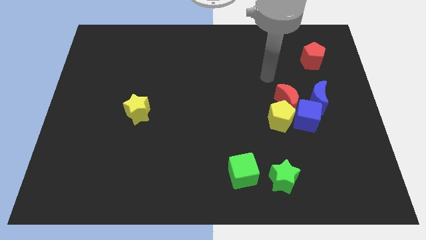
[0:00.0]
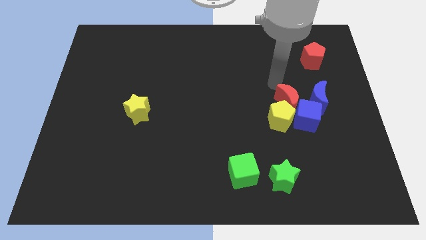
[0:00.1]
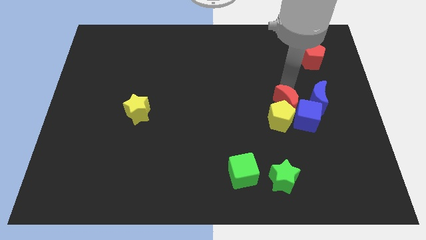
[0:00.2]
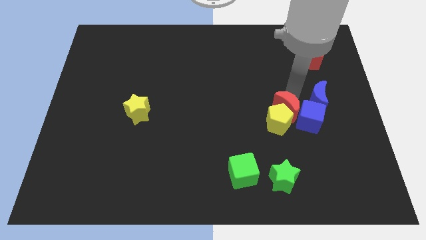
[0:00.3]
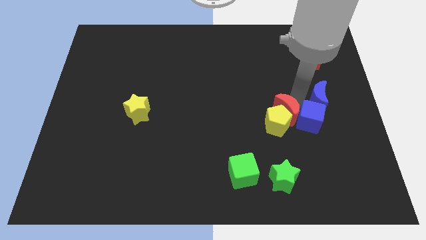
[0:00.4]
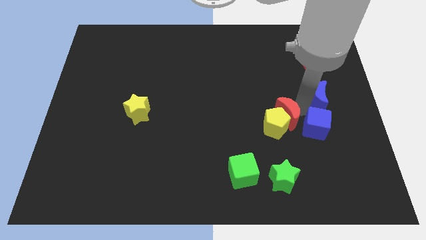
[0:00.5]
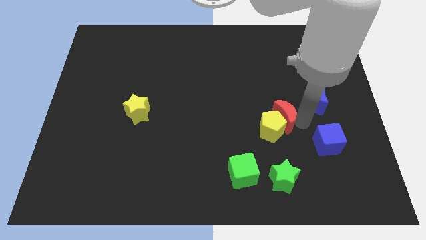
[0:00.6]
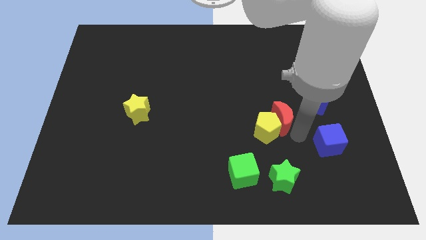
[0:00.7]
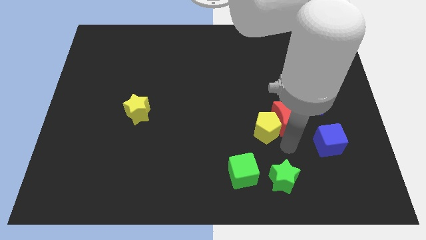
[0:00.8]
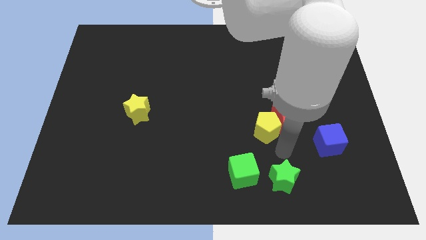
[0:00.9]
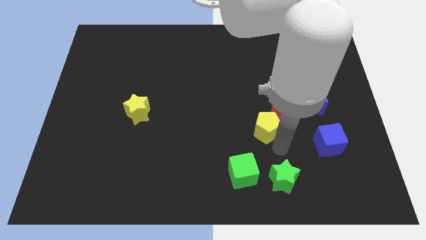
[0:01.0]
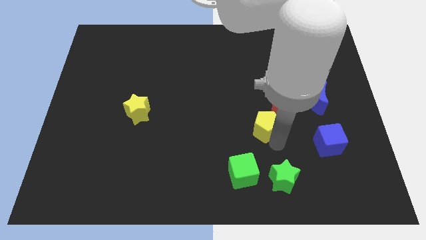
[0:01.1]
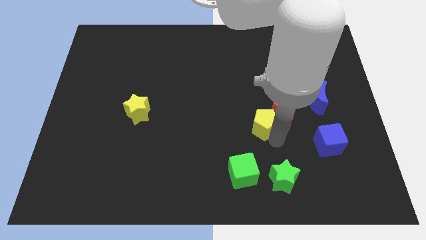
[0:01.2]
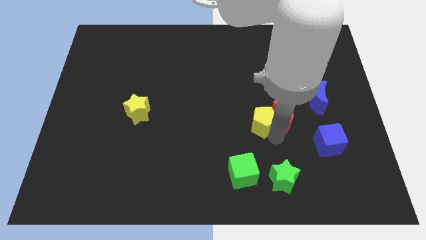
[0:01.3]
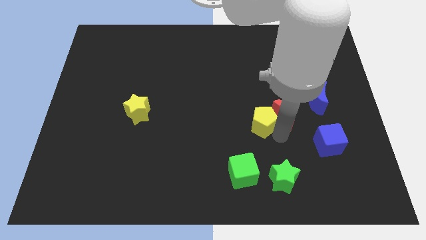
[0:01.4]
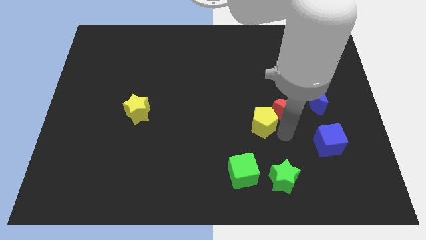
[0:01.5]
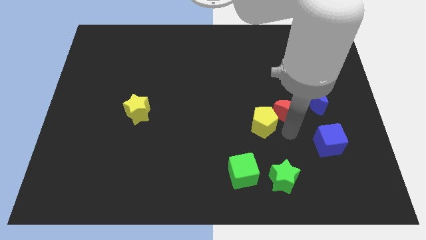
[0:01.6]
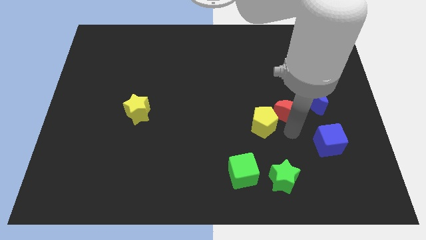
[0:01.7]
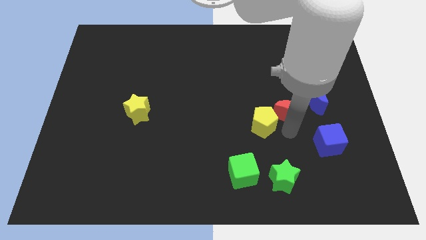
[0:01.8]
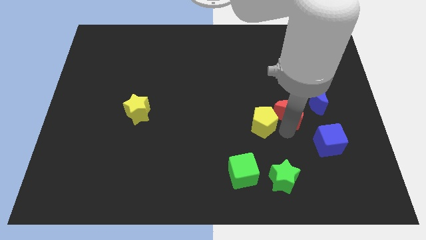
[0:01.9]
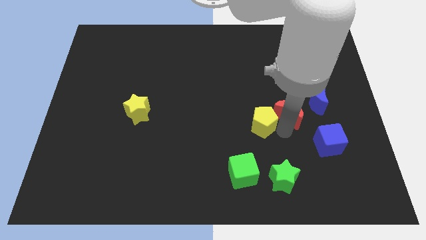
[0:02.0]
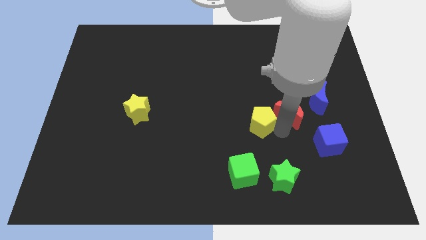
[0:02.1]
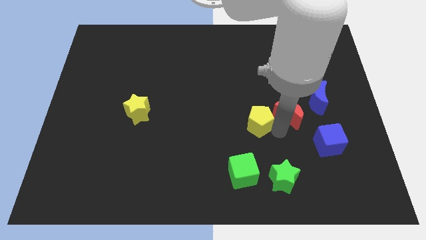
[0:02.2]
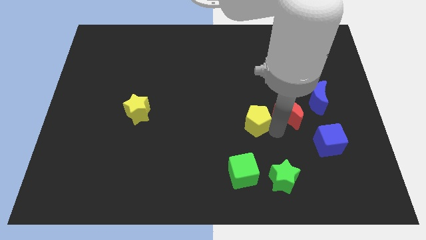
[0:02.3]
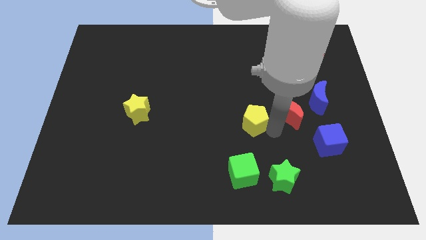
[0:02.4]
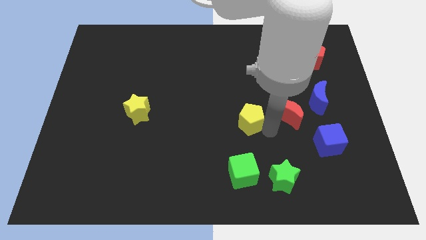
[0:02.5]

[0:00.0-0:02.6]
slide the yellow pentagon to the left a bit

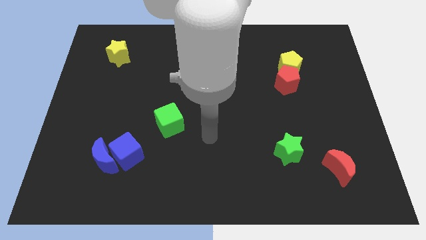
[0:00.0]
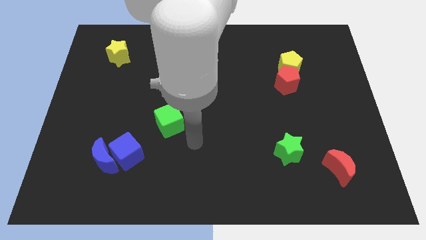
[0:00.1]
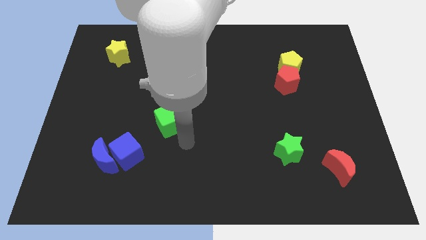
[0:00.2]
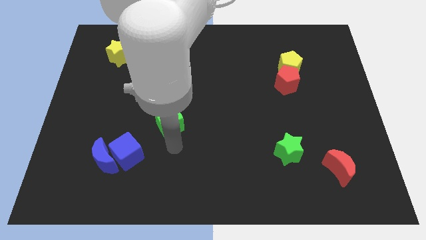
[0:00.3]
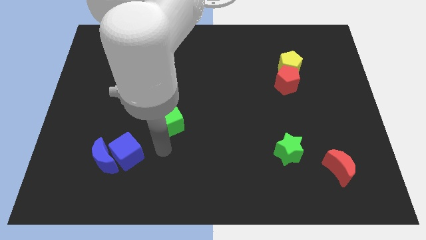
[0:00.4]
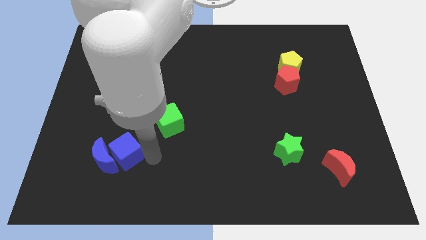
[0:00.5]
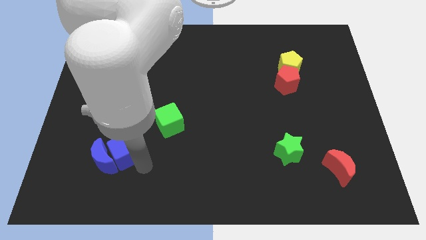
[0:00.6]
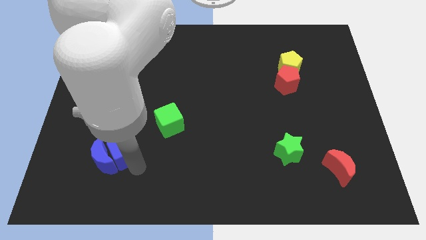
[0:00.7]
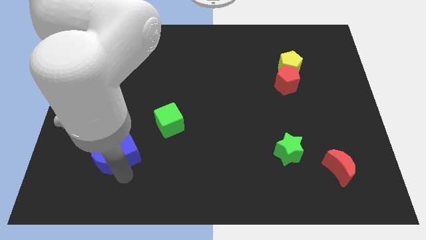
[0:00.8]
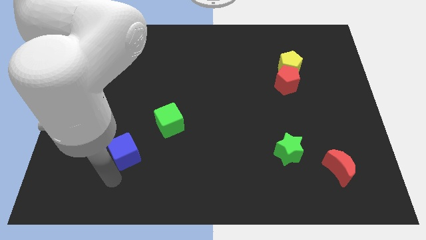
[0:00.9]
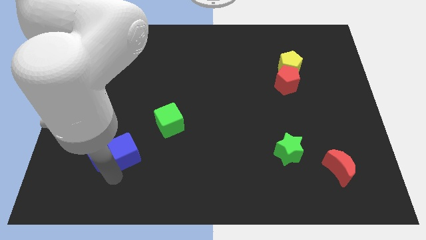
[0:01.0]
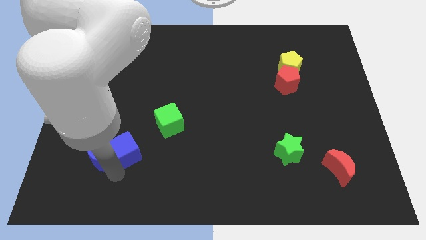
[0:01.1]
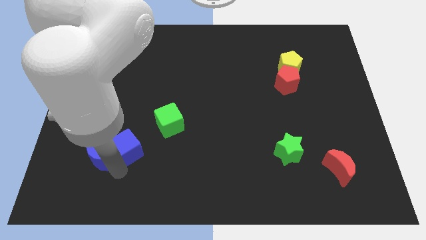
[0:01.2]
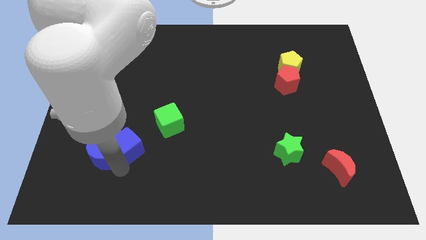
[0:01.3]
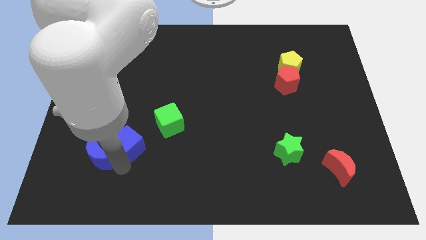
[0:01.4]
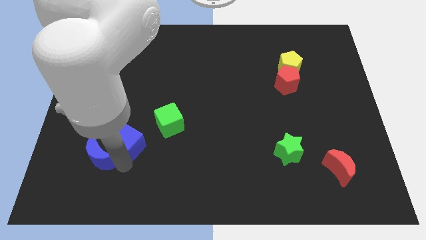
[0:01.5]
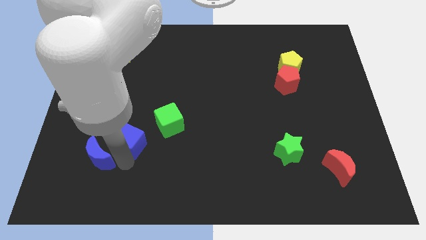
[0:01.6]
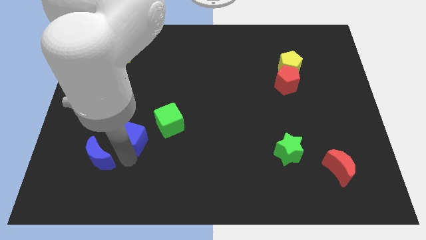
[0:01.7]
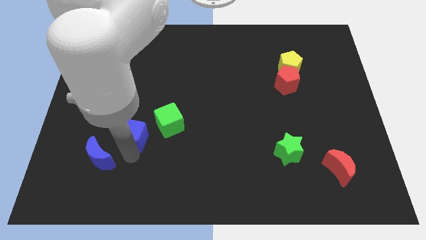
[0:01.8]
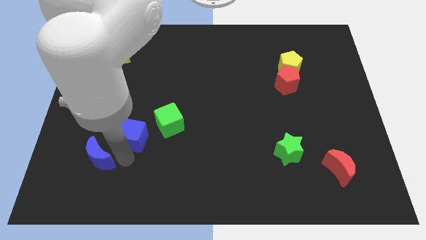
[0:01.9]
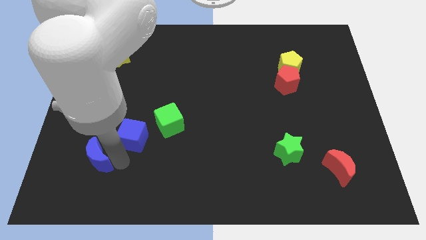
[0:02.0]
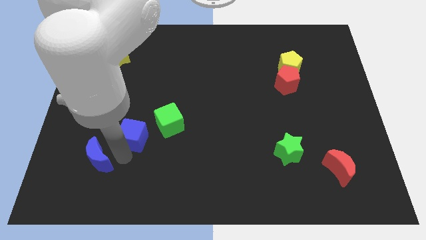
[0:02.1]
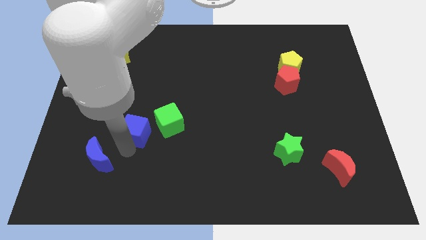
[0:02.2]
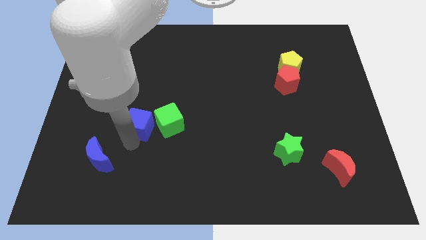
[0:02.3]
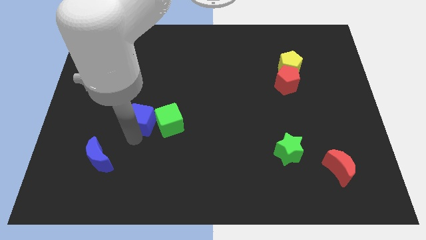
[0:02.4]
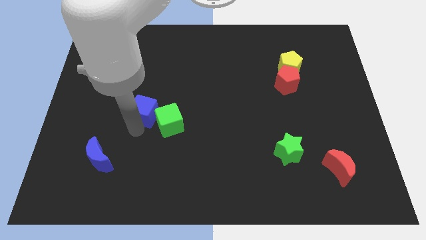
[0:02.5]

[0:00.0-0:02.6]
push the blue cube a bit diagonally up and right

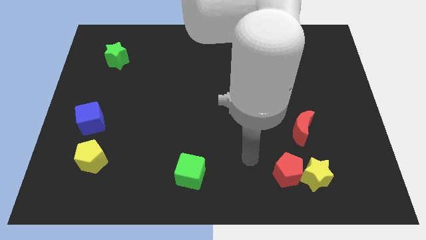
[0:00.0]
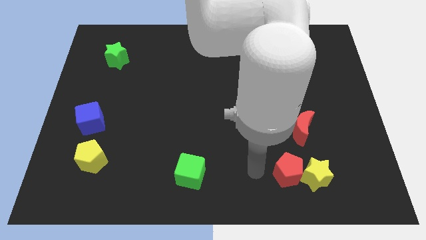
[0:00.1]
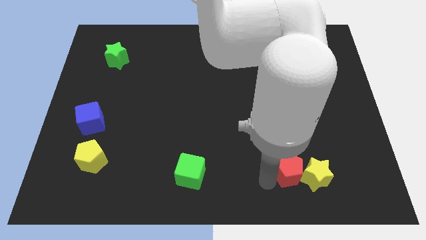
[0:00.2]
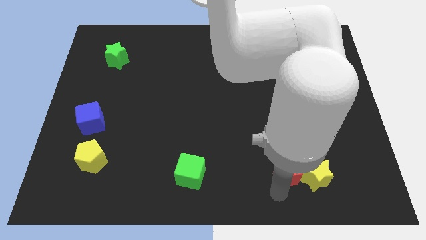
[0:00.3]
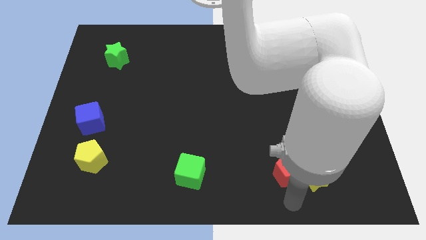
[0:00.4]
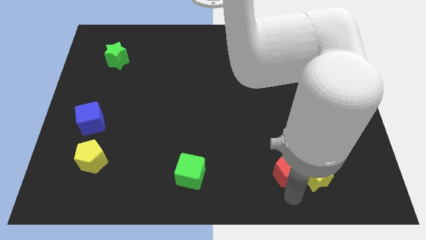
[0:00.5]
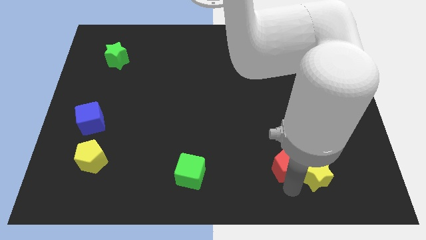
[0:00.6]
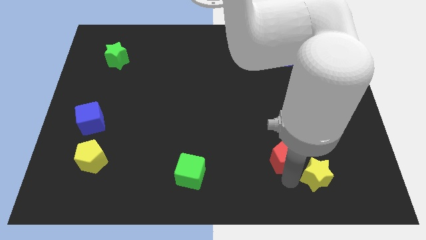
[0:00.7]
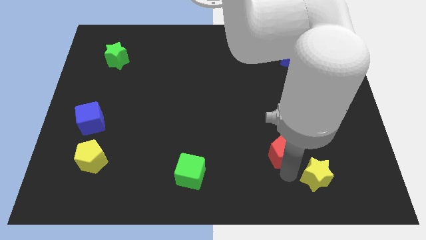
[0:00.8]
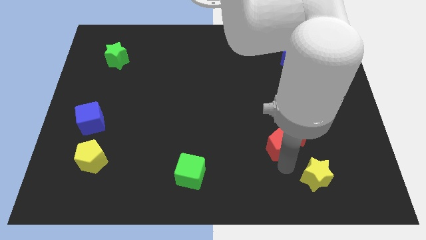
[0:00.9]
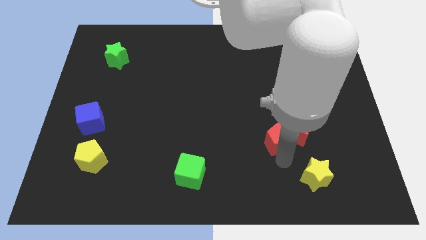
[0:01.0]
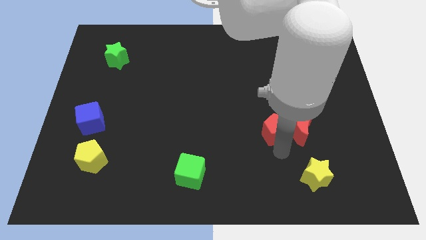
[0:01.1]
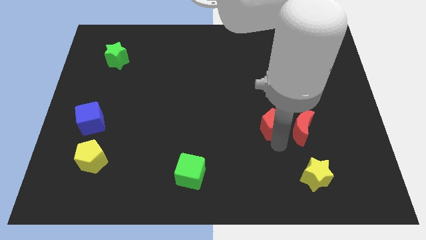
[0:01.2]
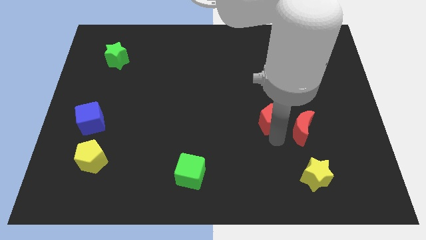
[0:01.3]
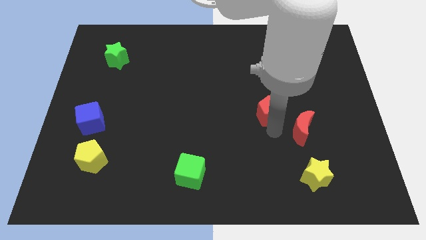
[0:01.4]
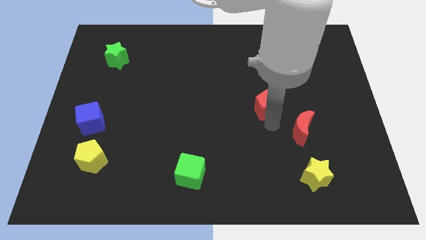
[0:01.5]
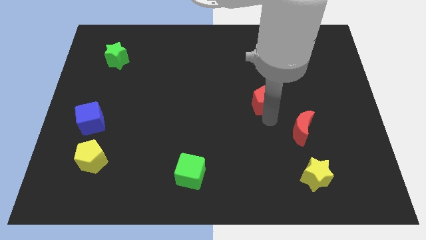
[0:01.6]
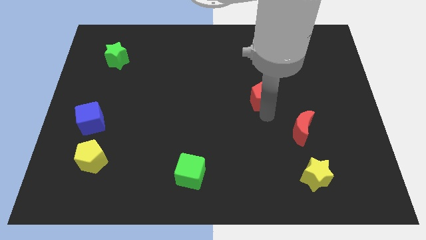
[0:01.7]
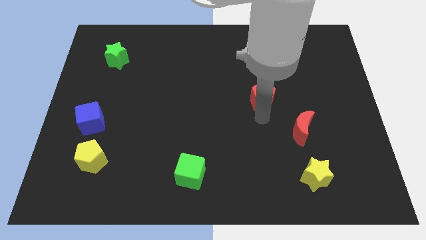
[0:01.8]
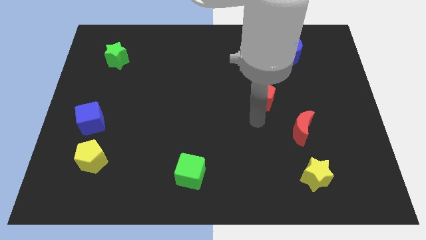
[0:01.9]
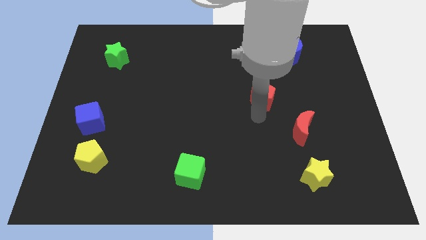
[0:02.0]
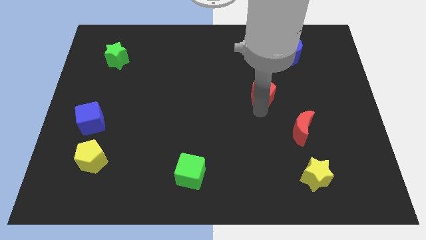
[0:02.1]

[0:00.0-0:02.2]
push the red pentagon upwards

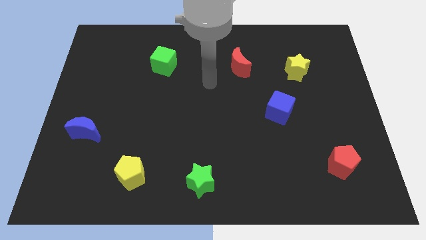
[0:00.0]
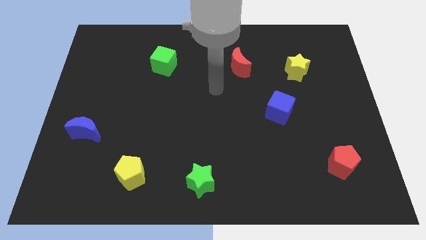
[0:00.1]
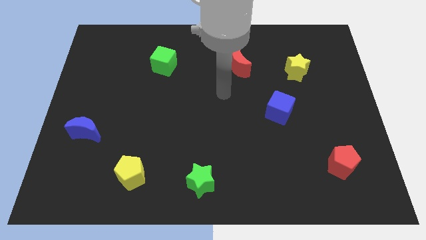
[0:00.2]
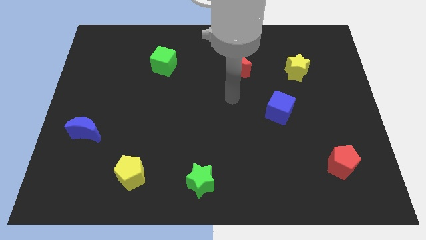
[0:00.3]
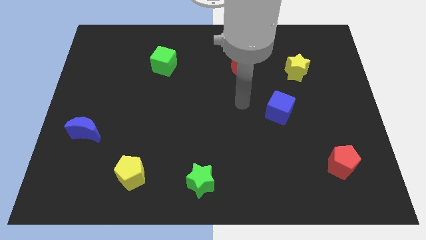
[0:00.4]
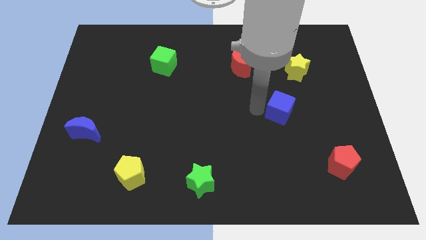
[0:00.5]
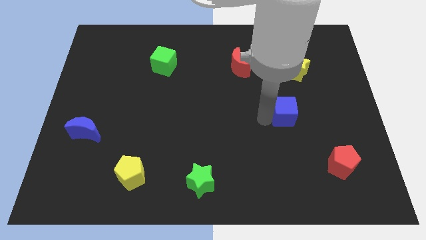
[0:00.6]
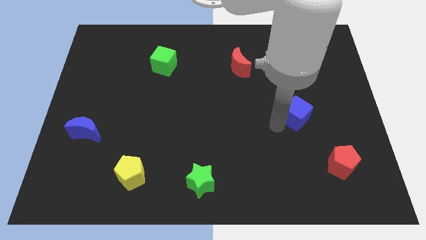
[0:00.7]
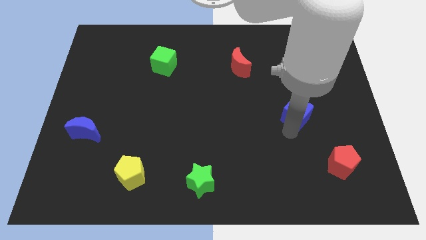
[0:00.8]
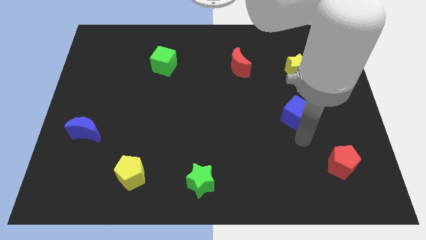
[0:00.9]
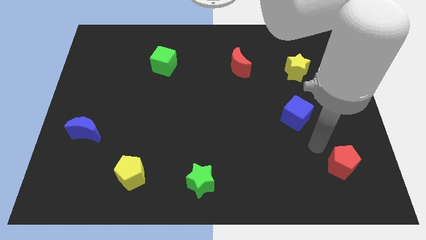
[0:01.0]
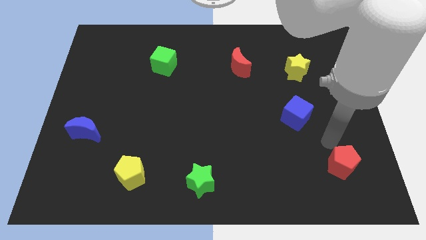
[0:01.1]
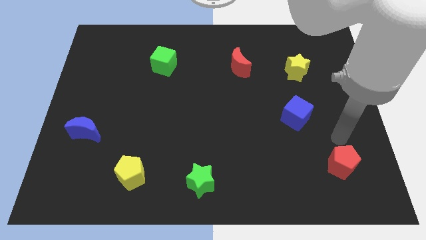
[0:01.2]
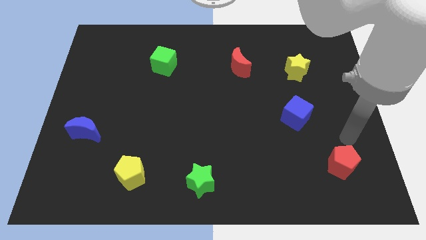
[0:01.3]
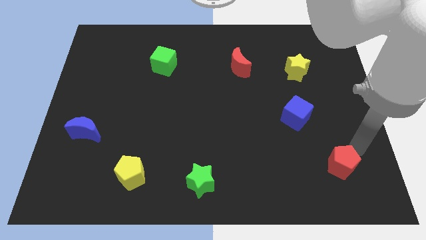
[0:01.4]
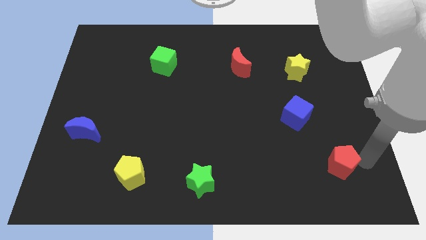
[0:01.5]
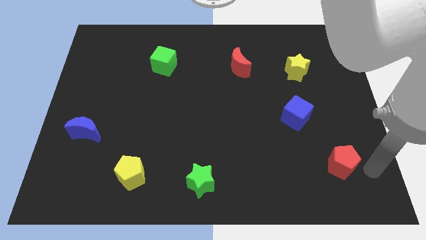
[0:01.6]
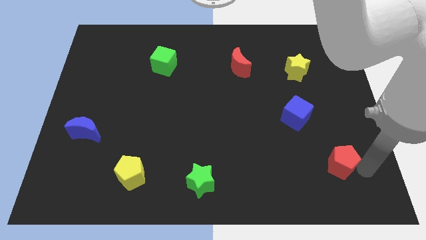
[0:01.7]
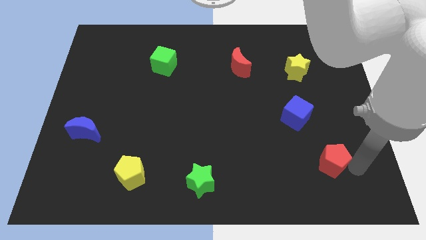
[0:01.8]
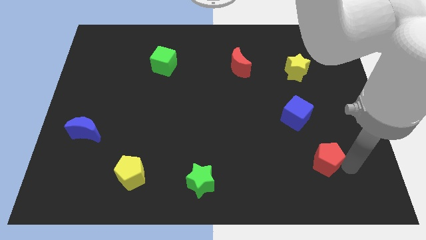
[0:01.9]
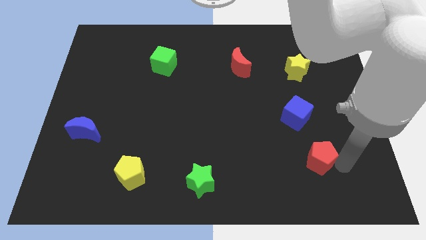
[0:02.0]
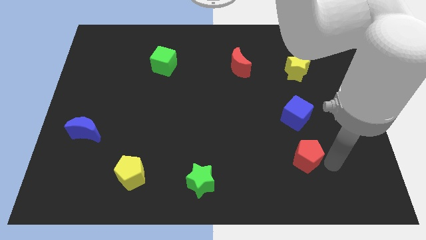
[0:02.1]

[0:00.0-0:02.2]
slightly push the red pentagon to the left
